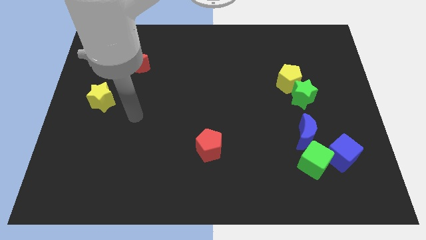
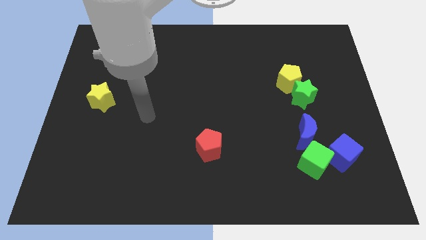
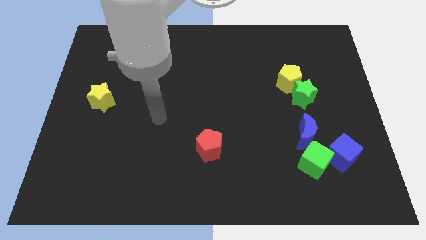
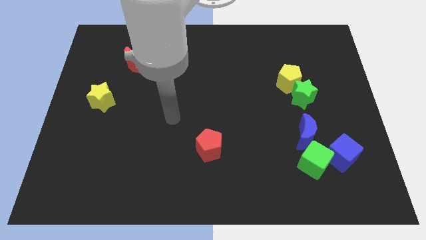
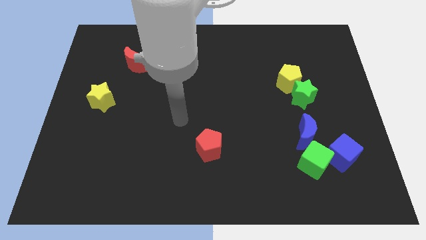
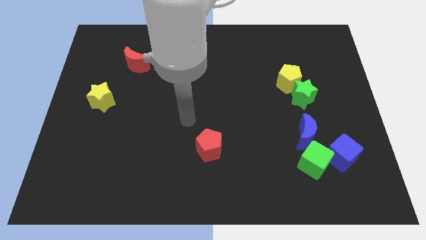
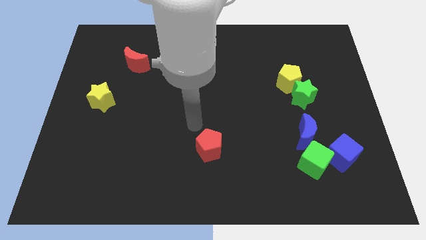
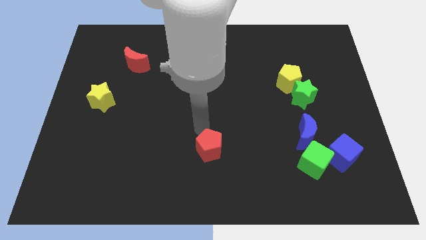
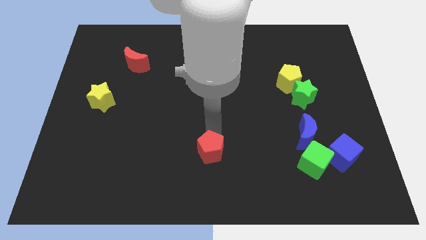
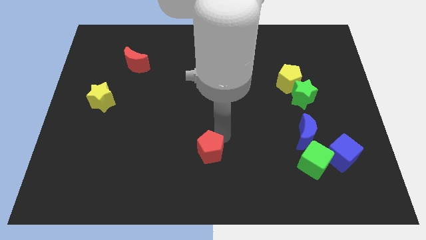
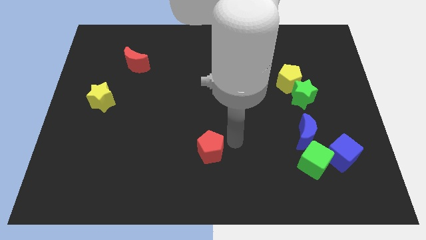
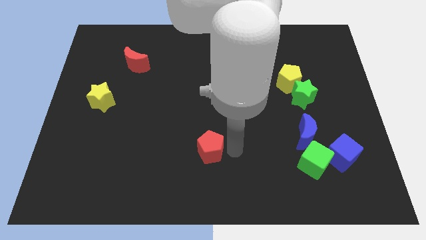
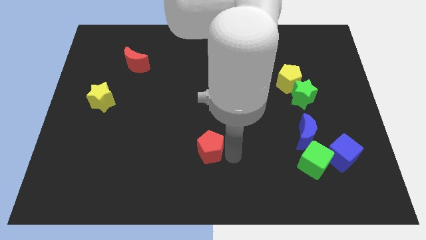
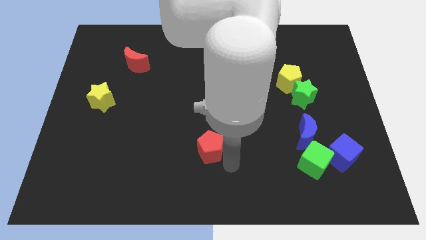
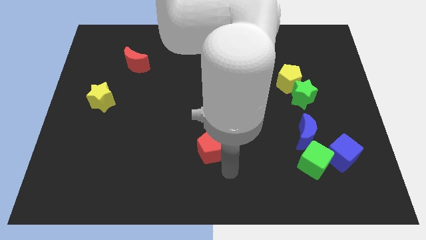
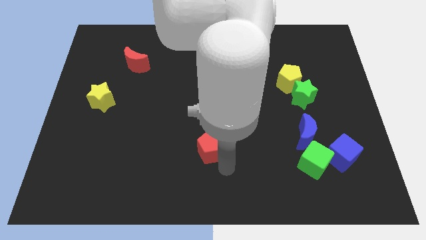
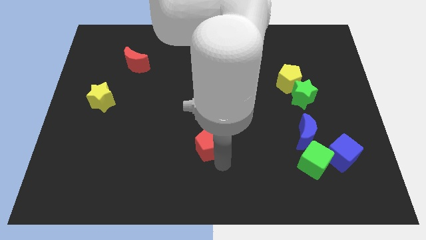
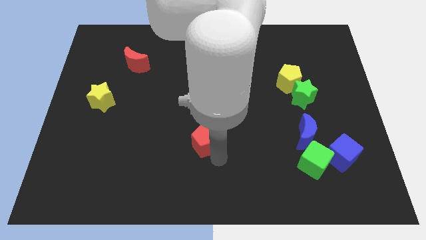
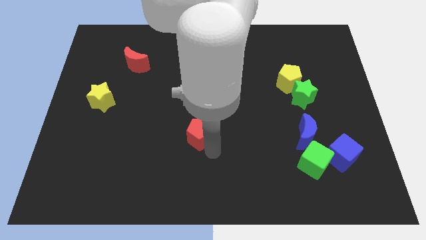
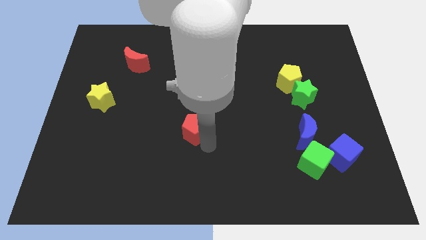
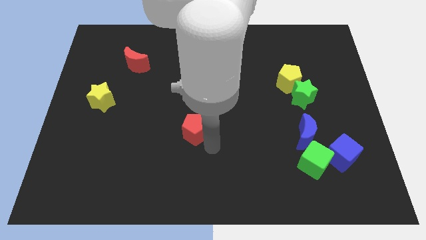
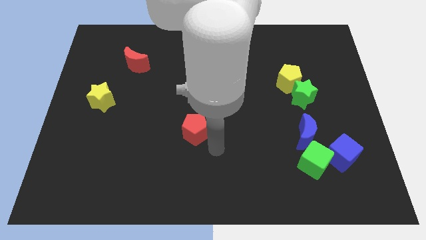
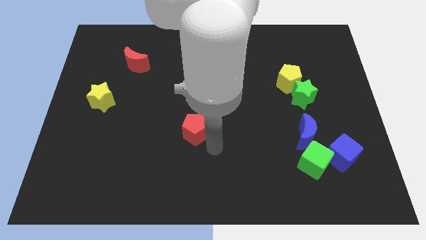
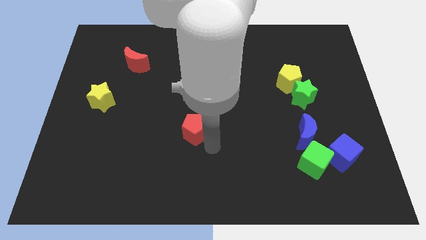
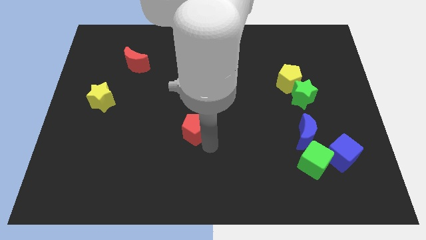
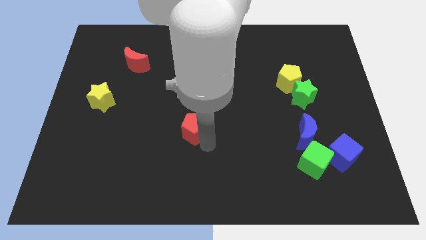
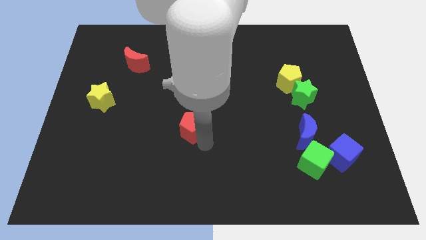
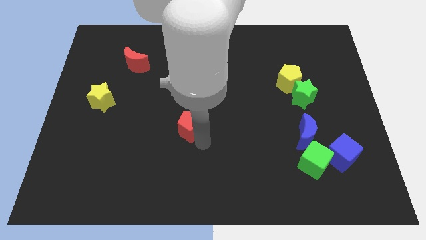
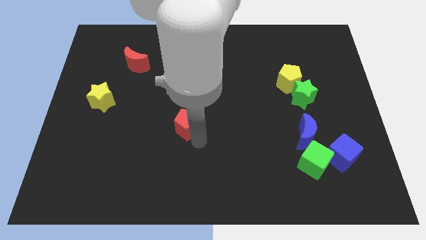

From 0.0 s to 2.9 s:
slide the red pentagon somewhat diagonally up and left

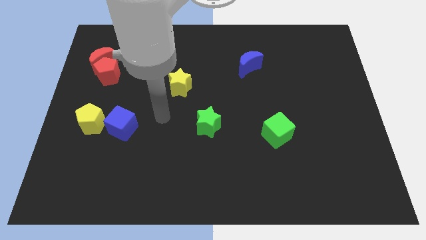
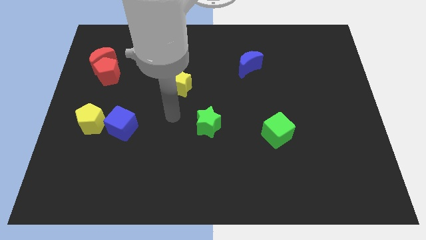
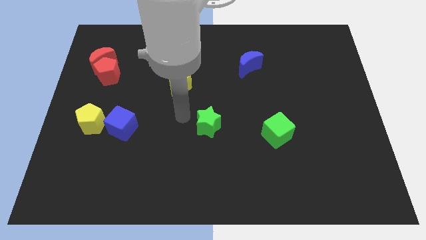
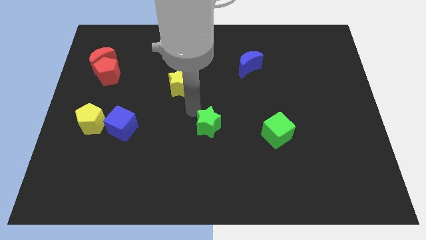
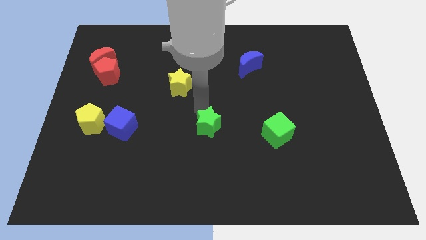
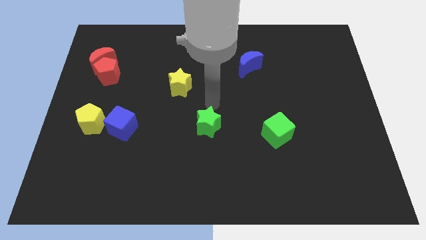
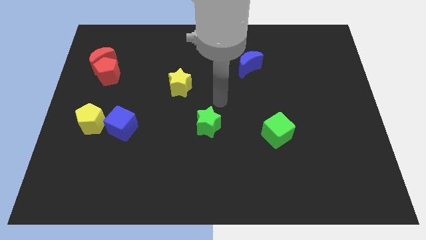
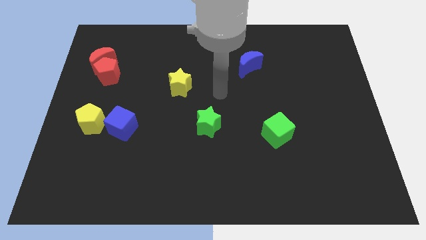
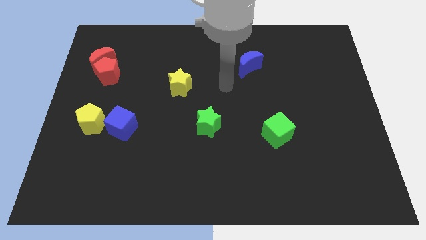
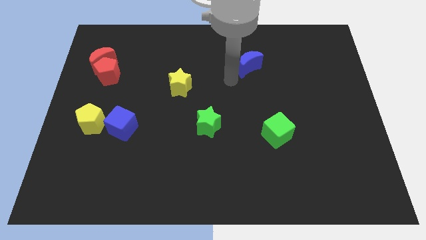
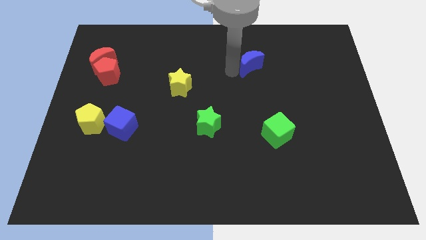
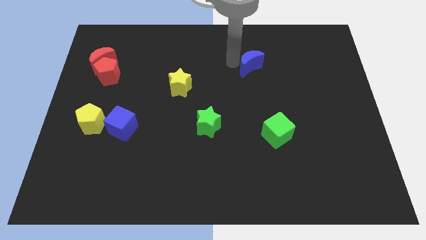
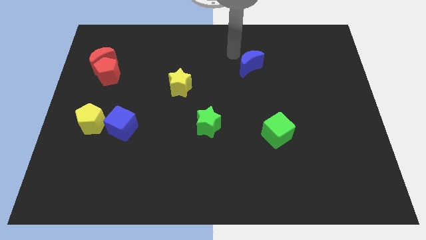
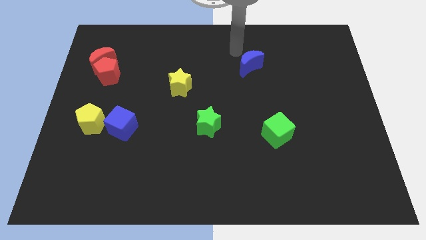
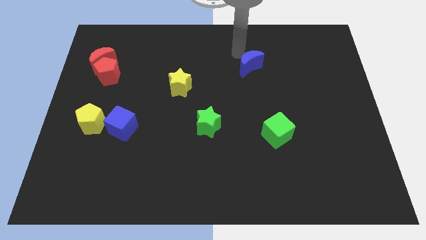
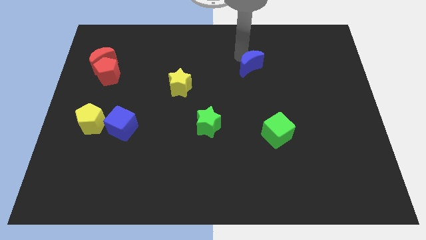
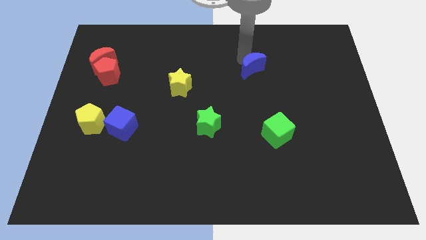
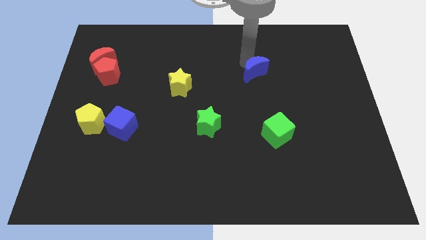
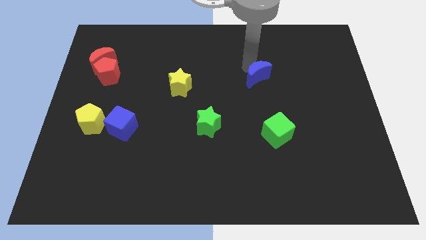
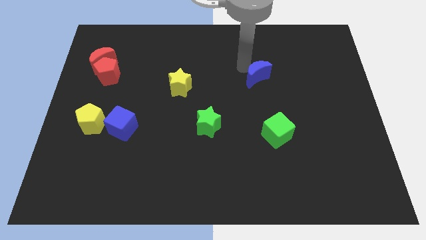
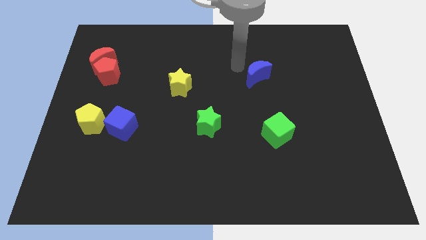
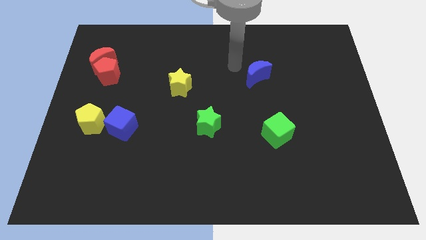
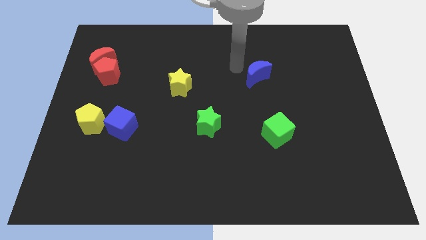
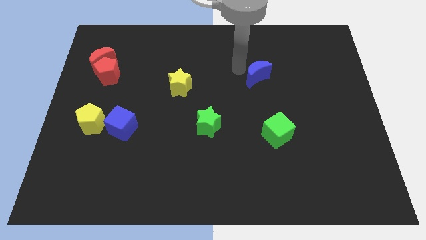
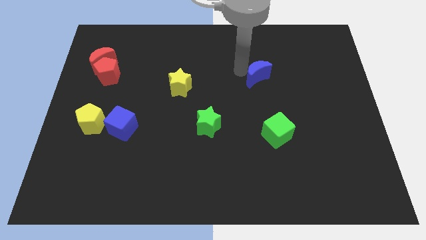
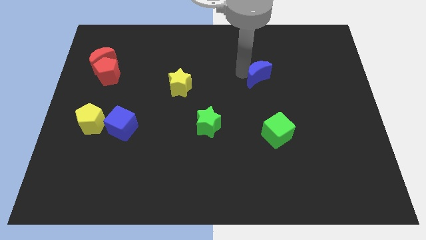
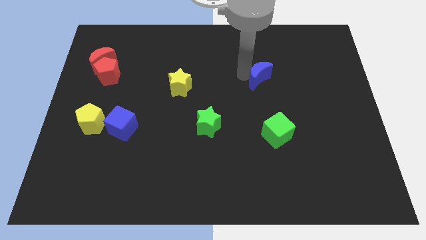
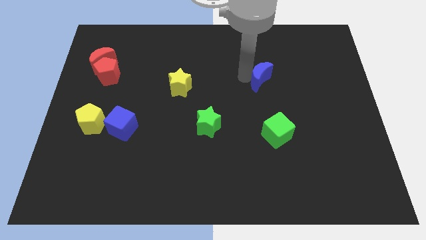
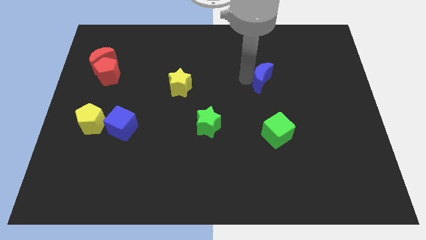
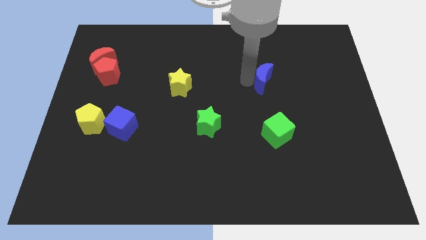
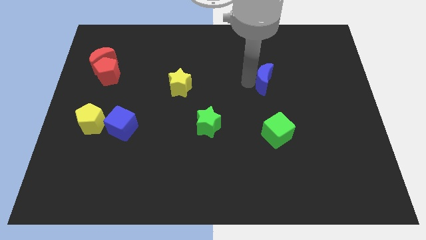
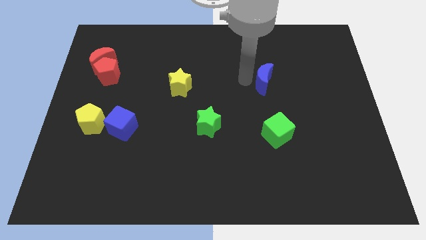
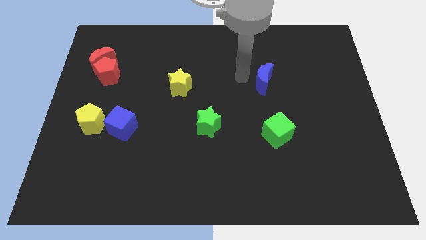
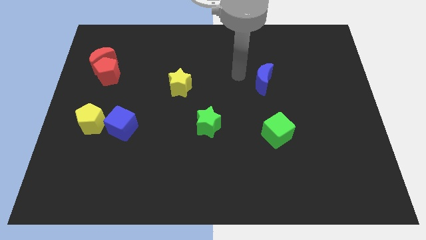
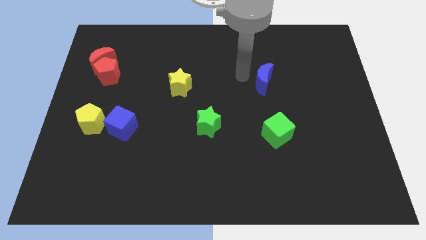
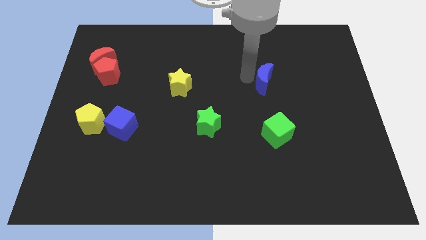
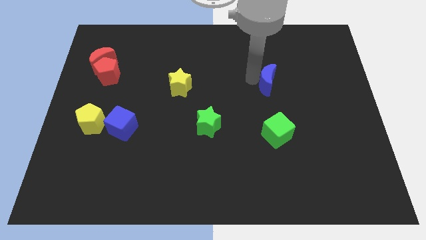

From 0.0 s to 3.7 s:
move the blue moon a little down and then right

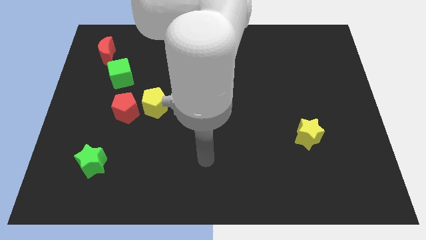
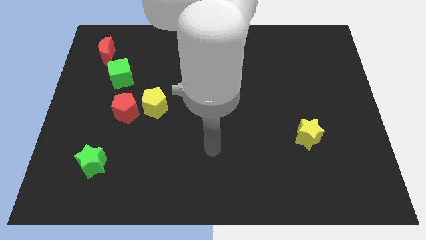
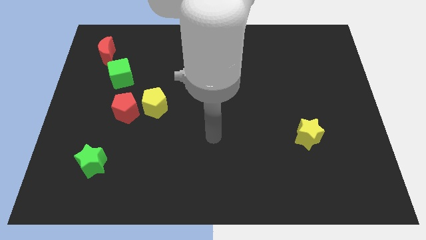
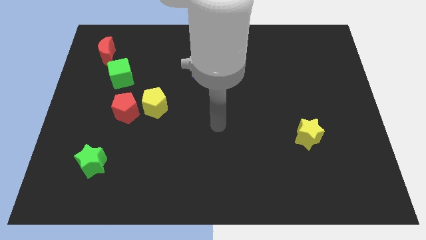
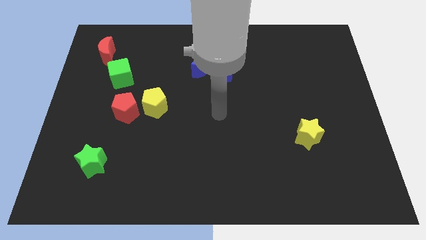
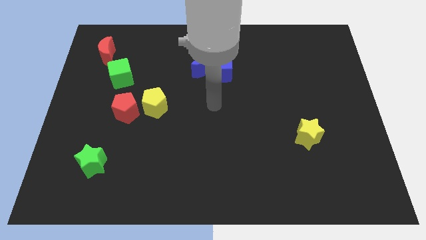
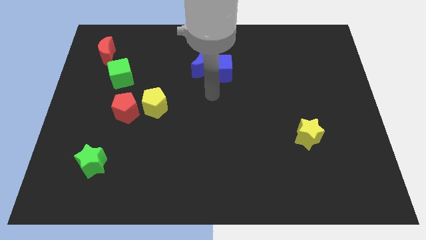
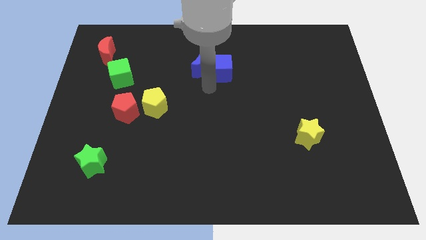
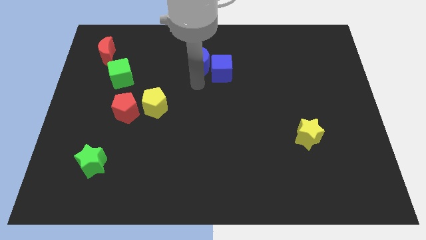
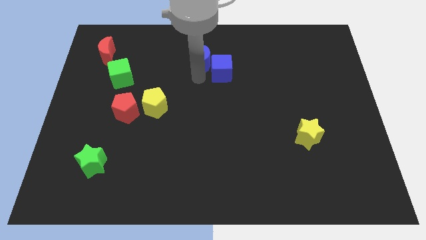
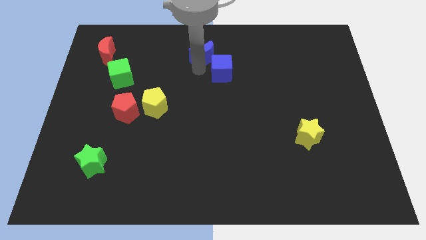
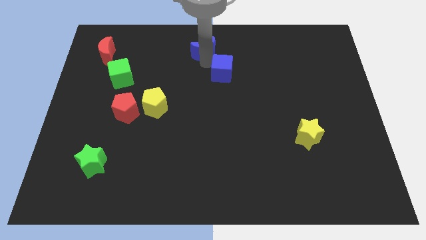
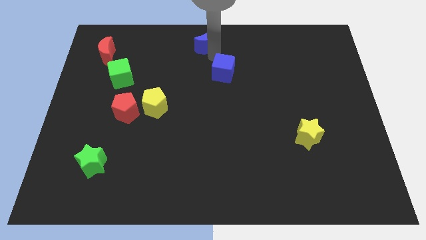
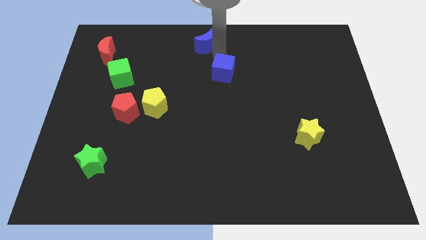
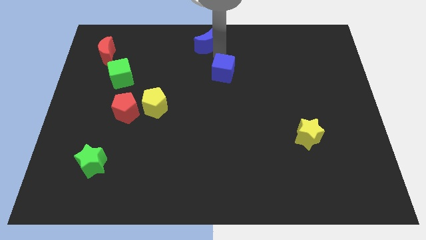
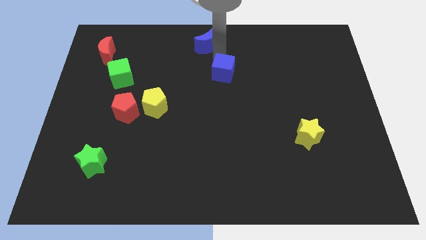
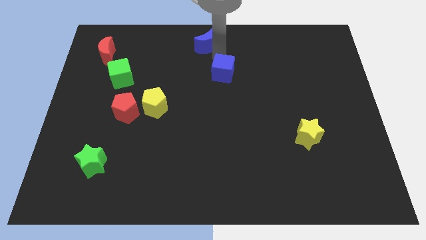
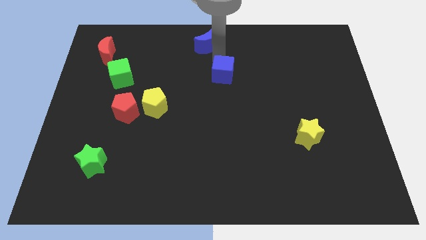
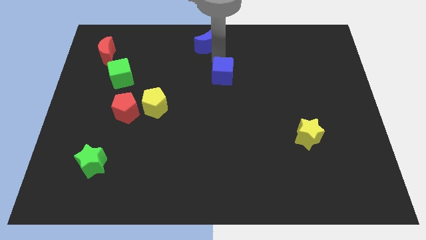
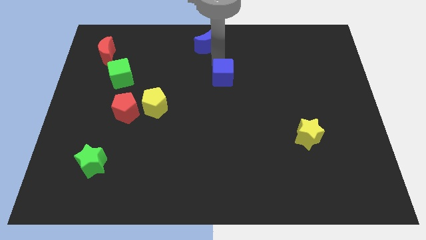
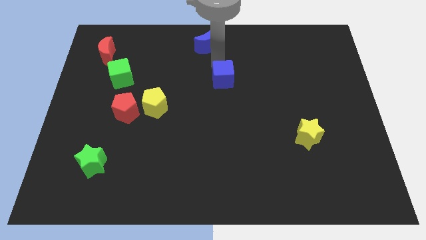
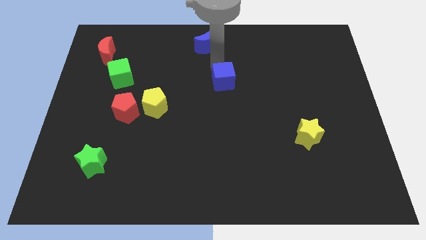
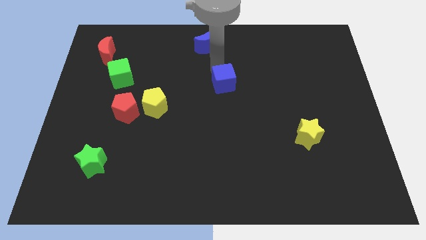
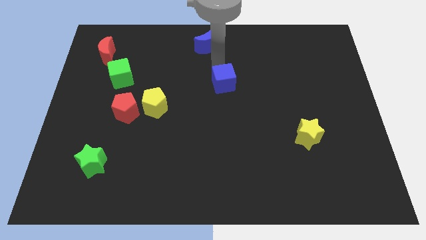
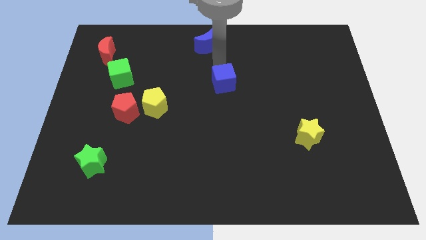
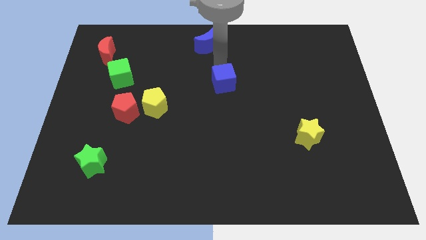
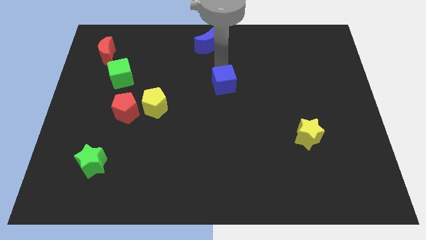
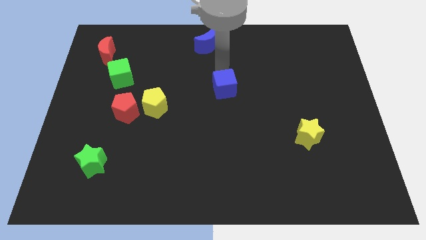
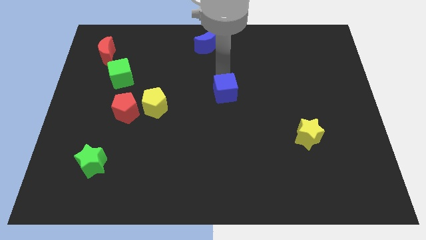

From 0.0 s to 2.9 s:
move the blue cube down a bit
